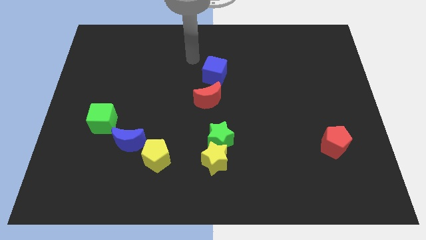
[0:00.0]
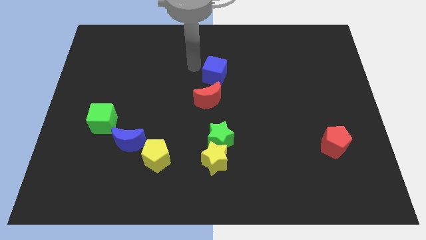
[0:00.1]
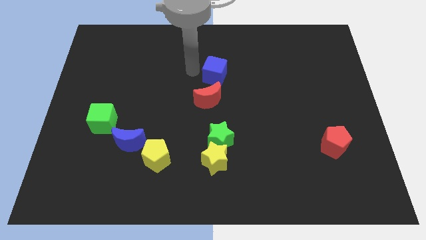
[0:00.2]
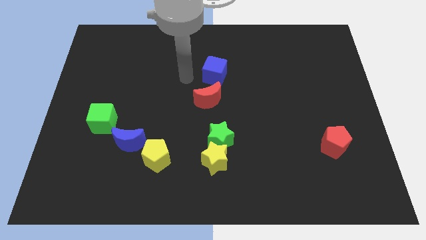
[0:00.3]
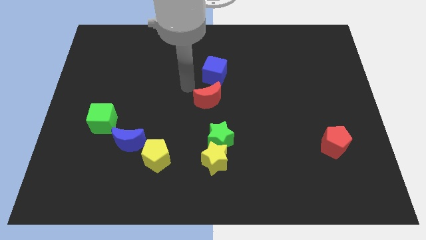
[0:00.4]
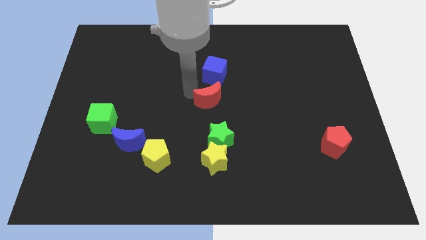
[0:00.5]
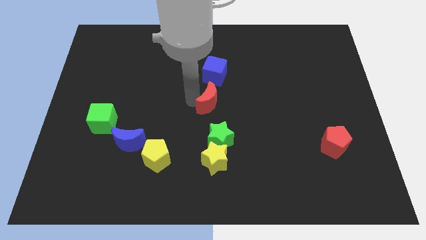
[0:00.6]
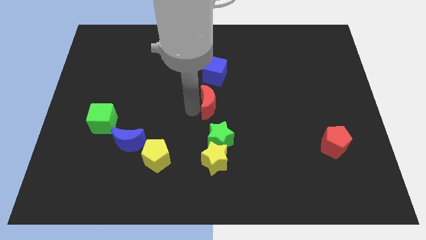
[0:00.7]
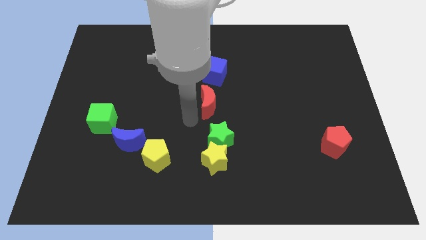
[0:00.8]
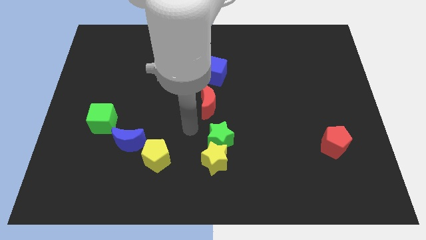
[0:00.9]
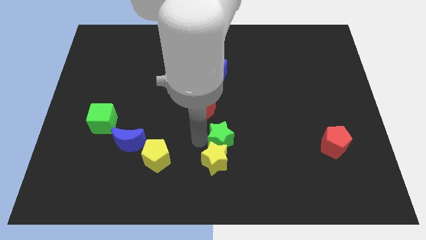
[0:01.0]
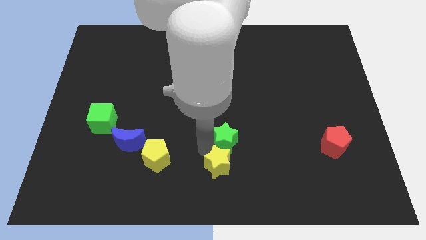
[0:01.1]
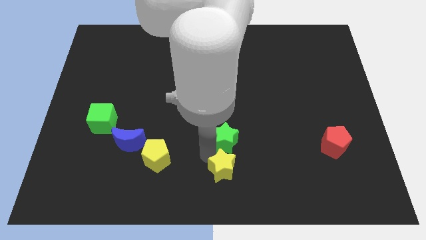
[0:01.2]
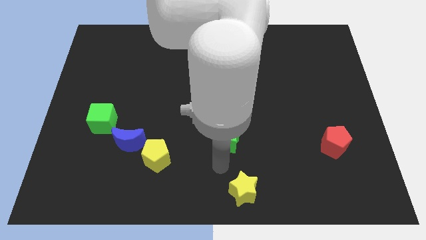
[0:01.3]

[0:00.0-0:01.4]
separate the green star from the yellow star

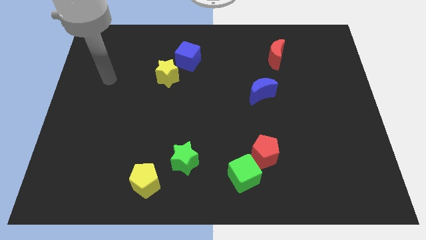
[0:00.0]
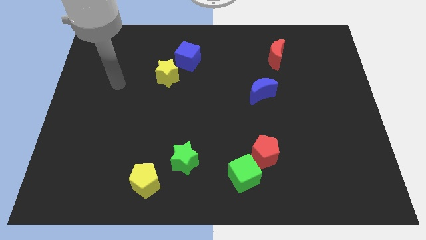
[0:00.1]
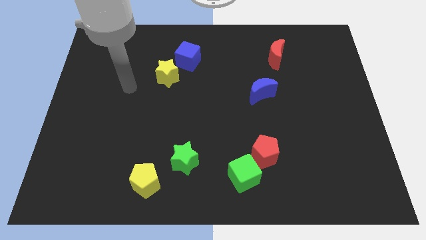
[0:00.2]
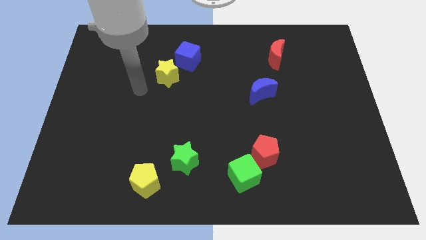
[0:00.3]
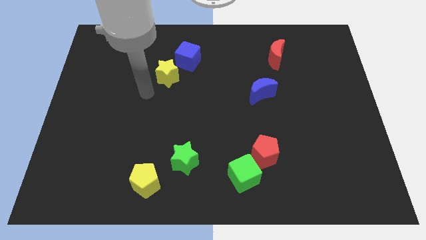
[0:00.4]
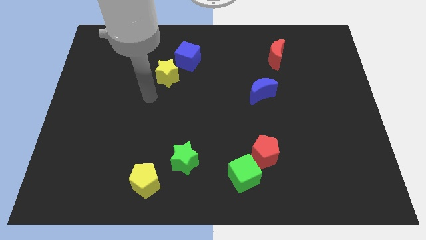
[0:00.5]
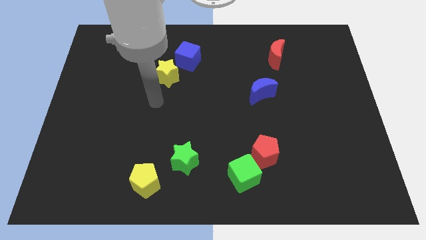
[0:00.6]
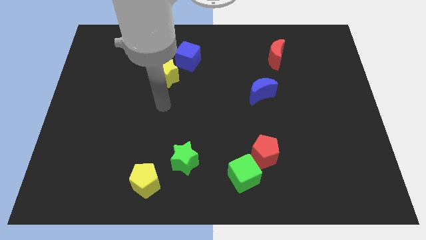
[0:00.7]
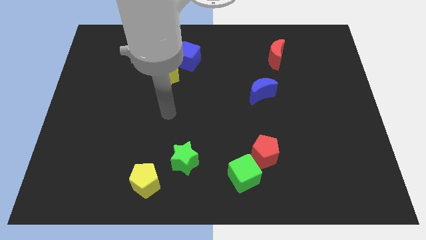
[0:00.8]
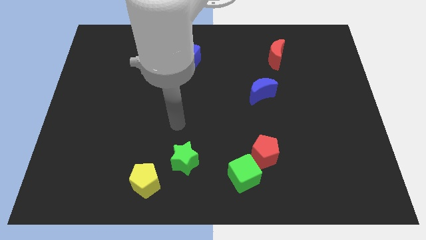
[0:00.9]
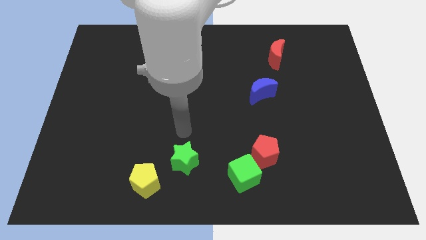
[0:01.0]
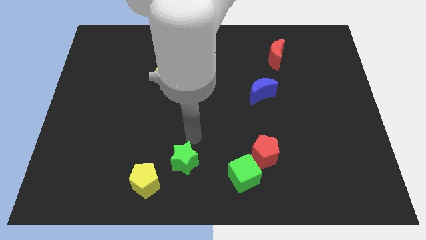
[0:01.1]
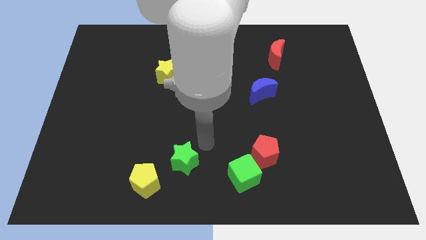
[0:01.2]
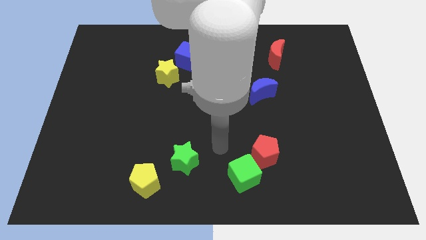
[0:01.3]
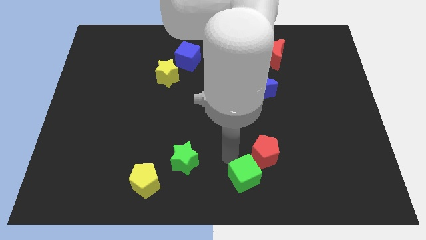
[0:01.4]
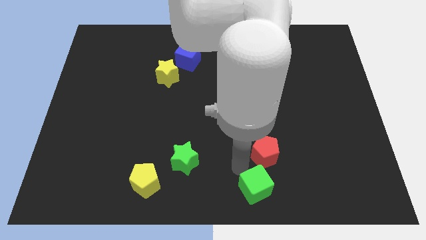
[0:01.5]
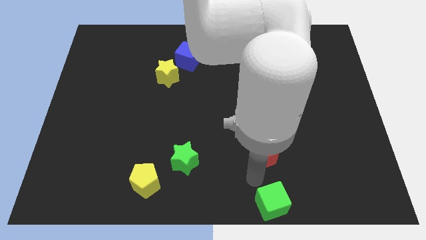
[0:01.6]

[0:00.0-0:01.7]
move the red pentagon away from the green cube

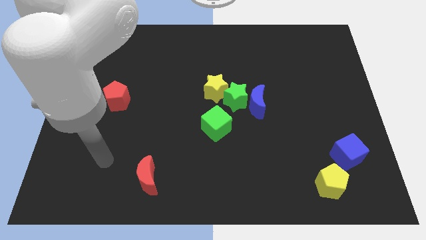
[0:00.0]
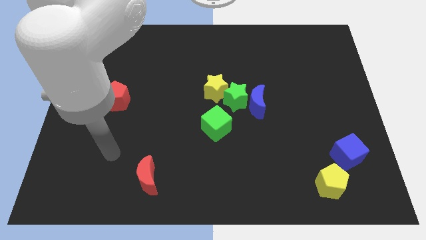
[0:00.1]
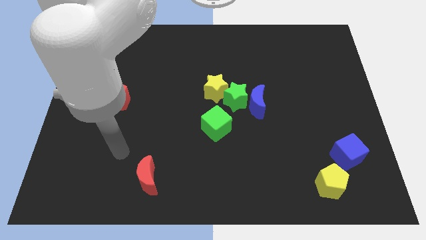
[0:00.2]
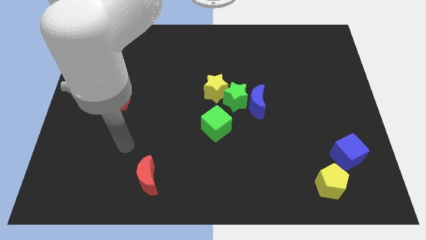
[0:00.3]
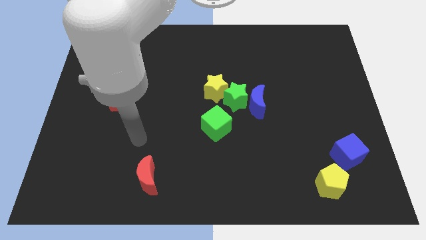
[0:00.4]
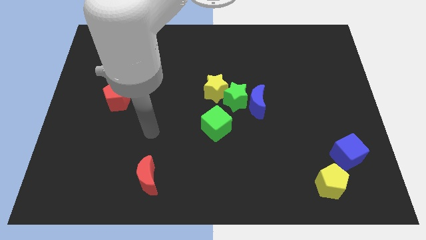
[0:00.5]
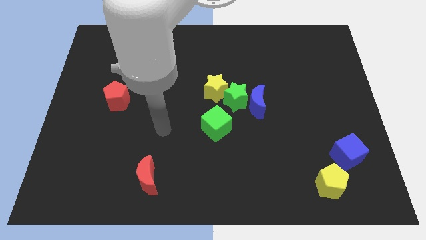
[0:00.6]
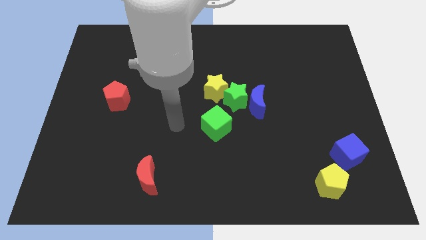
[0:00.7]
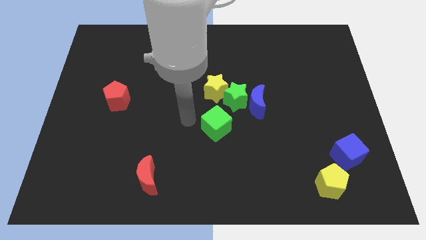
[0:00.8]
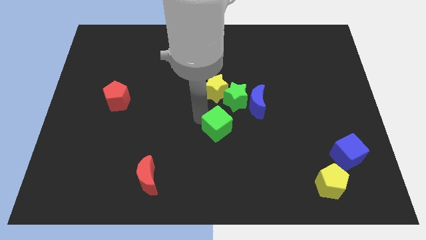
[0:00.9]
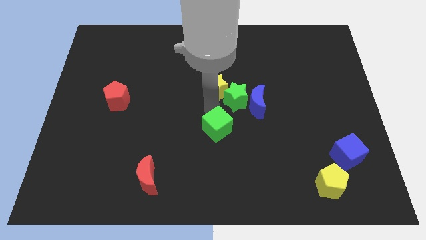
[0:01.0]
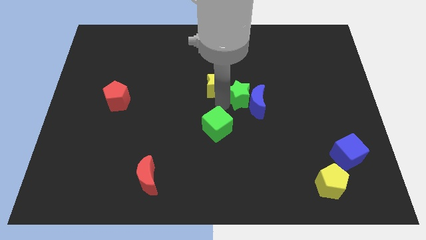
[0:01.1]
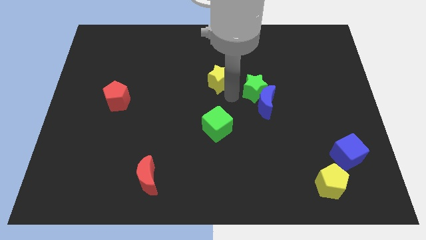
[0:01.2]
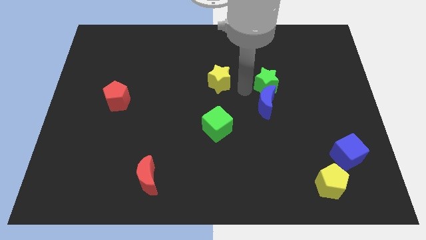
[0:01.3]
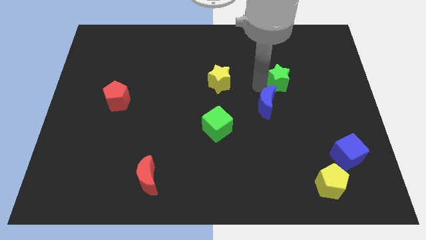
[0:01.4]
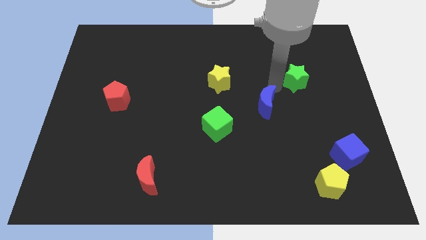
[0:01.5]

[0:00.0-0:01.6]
move the blue moon away from the green star

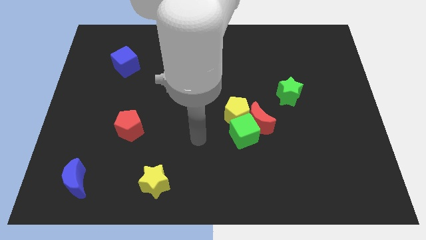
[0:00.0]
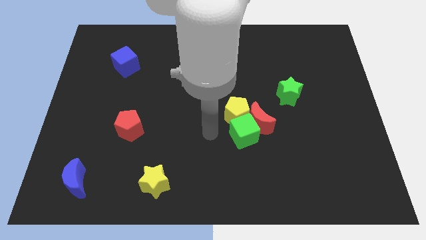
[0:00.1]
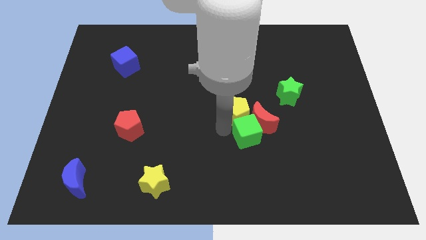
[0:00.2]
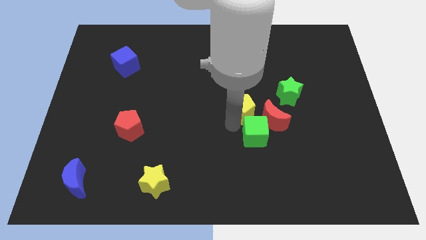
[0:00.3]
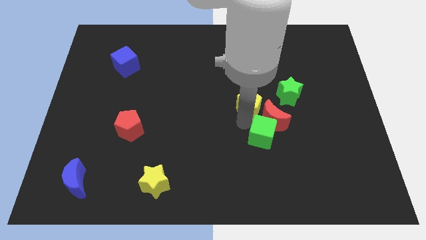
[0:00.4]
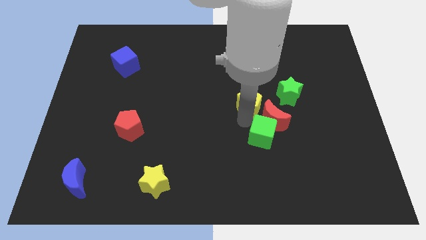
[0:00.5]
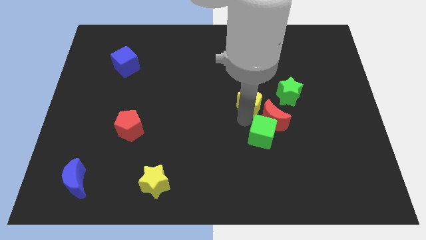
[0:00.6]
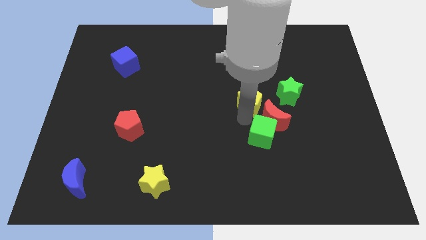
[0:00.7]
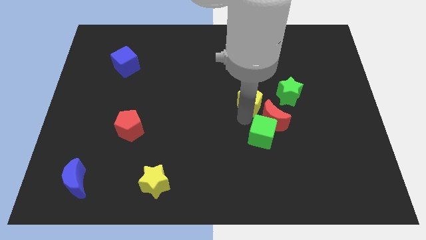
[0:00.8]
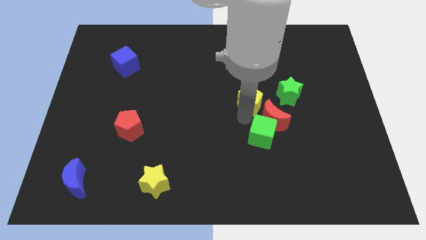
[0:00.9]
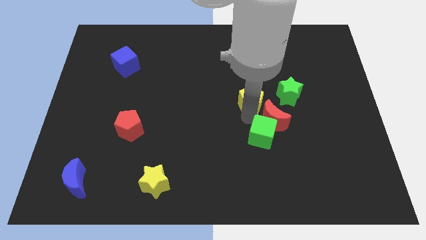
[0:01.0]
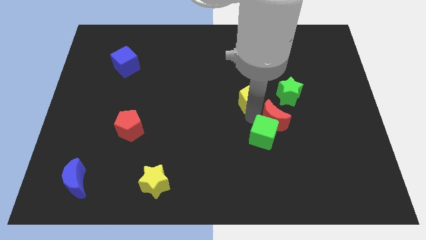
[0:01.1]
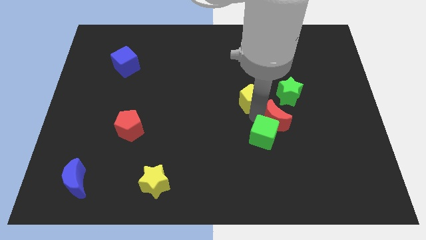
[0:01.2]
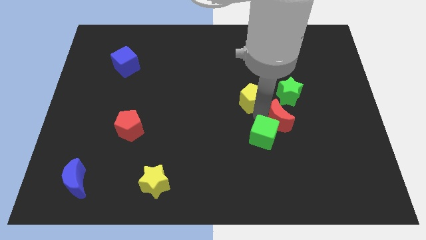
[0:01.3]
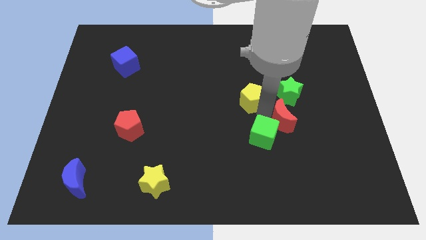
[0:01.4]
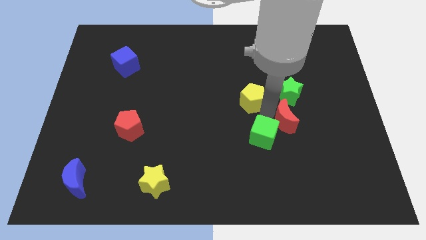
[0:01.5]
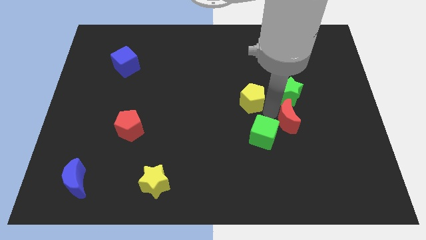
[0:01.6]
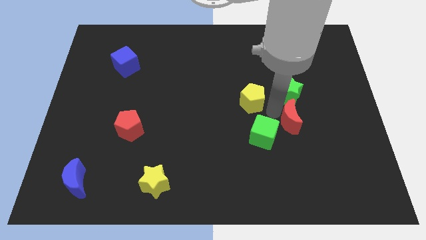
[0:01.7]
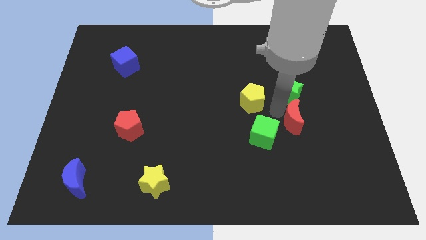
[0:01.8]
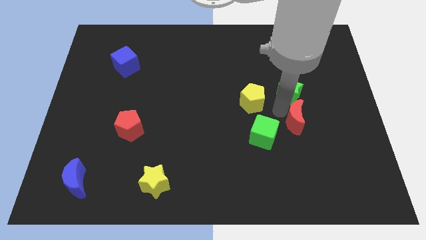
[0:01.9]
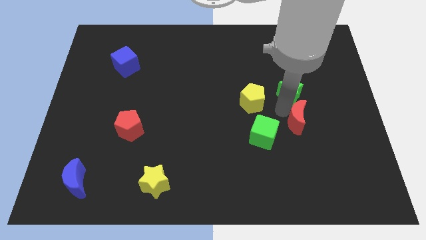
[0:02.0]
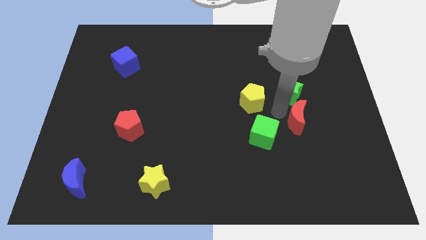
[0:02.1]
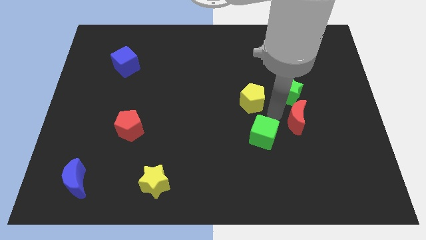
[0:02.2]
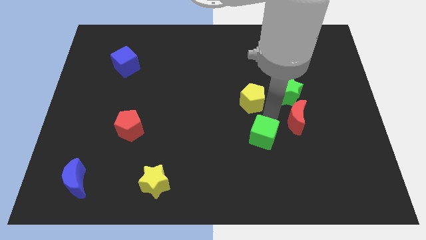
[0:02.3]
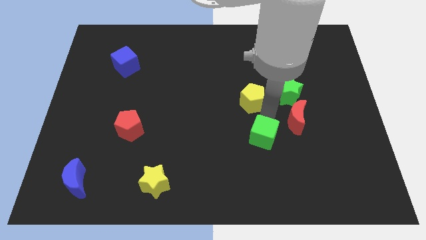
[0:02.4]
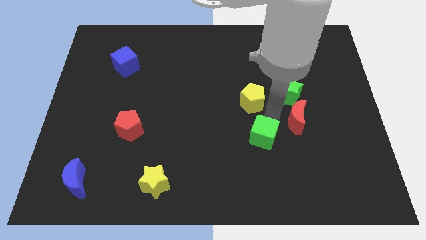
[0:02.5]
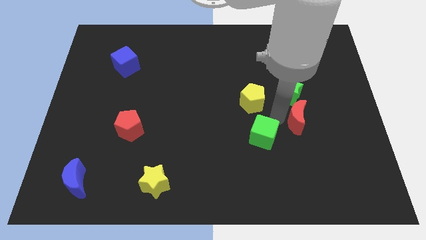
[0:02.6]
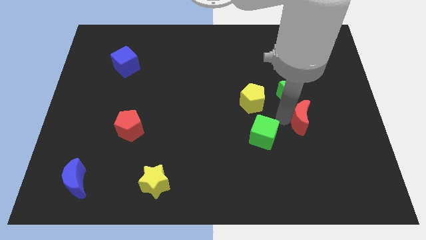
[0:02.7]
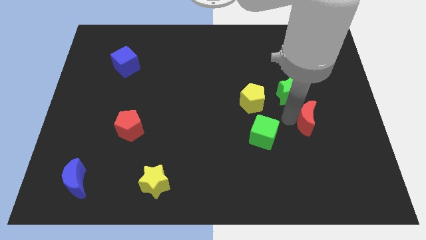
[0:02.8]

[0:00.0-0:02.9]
pull the red moon apart from the green cube and yellow pentagon

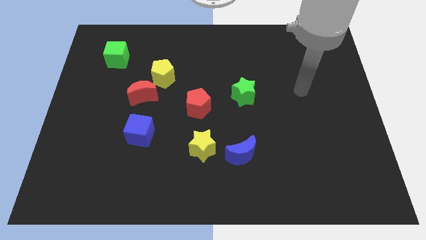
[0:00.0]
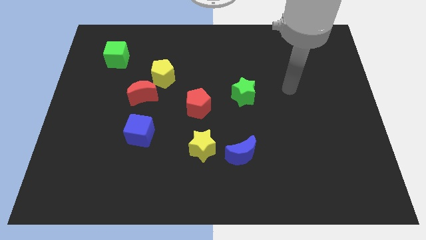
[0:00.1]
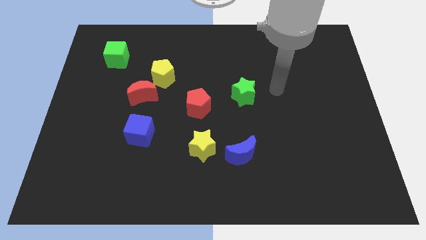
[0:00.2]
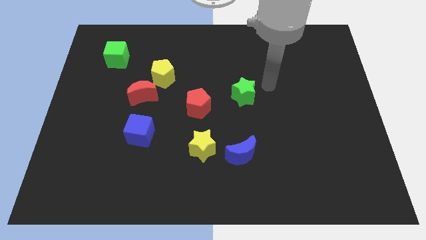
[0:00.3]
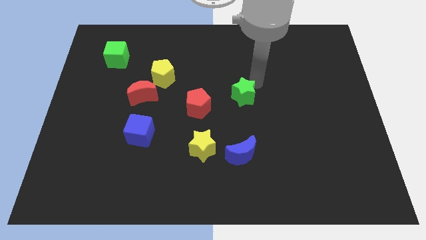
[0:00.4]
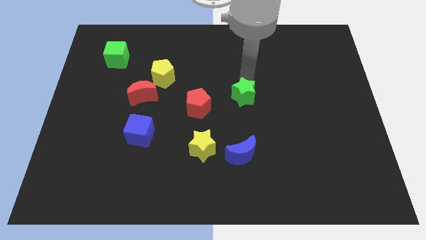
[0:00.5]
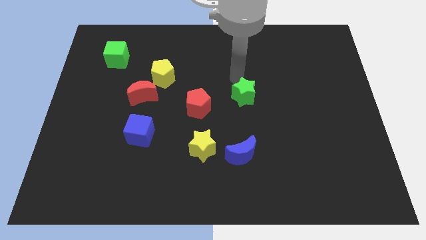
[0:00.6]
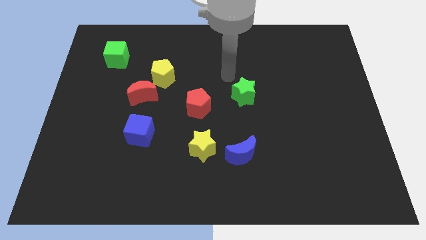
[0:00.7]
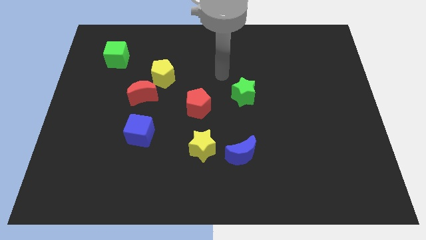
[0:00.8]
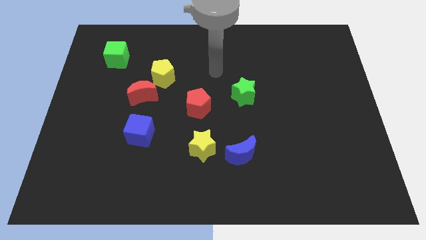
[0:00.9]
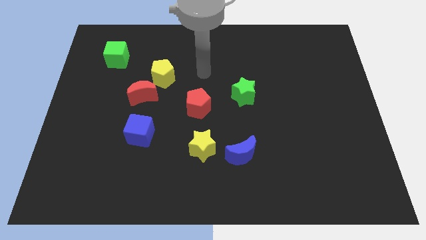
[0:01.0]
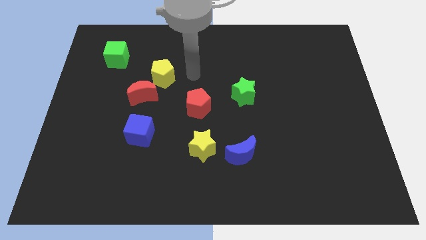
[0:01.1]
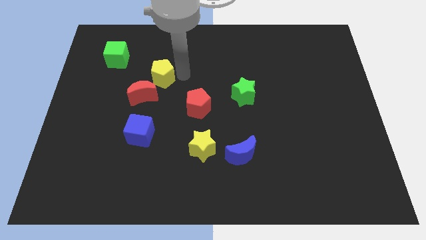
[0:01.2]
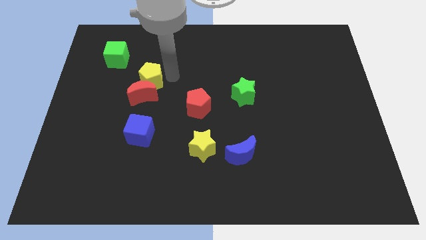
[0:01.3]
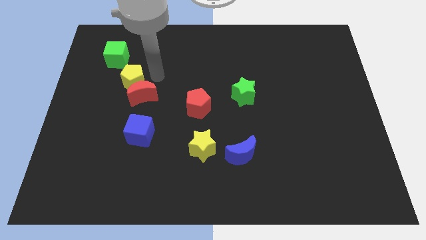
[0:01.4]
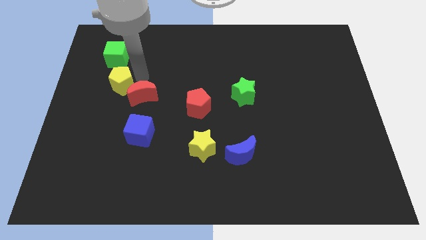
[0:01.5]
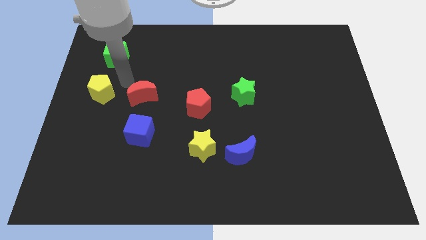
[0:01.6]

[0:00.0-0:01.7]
pull the red moon apart from the yellow pentagon
